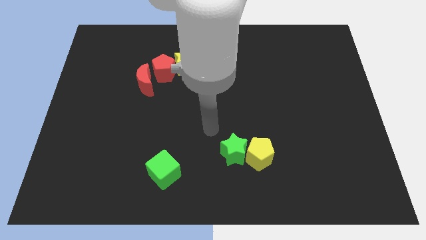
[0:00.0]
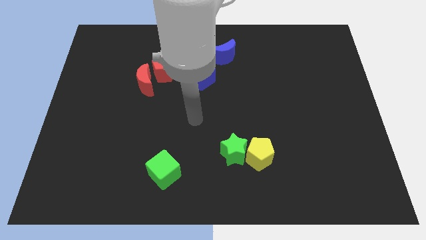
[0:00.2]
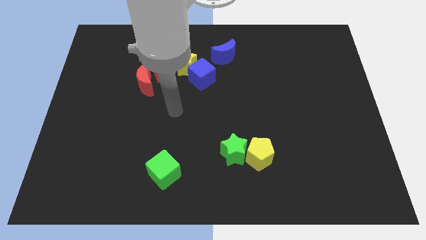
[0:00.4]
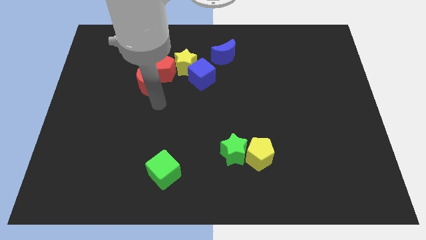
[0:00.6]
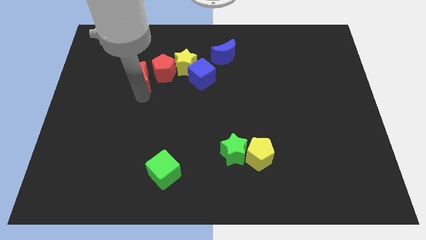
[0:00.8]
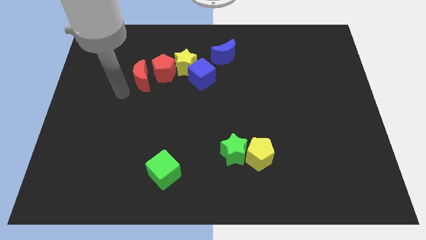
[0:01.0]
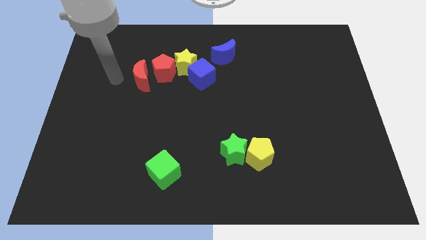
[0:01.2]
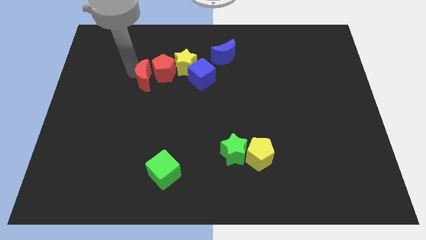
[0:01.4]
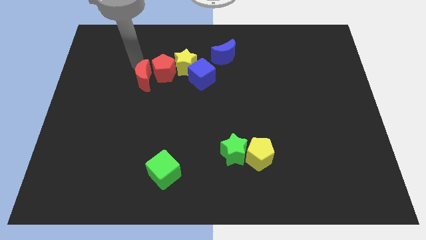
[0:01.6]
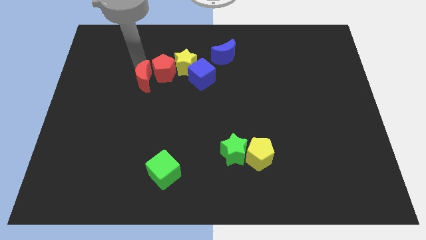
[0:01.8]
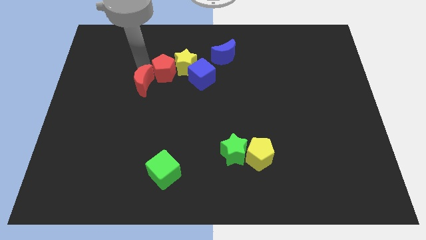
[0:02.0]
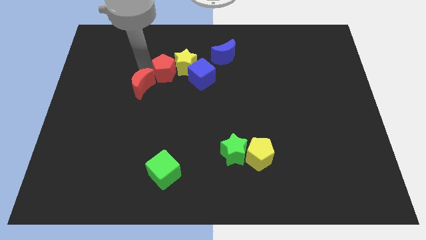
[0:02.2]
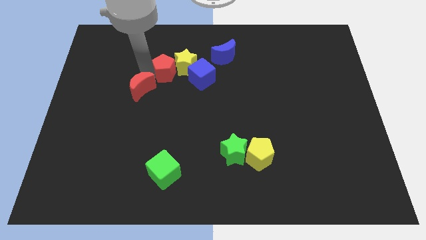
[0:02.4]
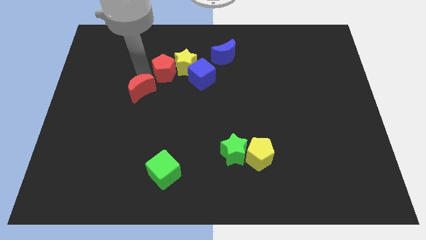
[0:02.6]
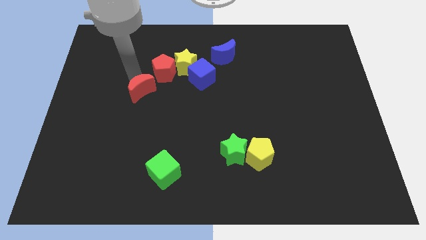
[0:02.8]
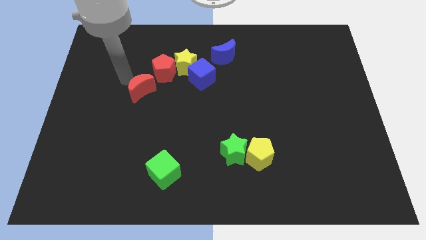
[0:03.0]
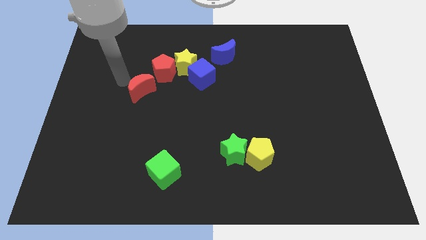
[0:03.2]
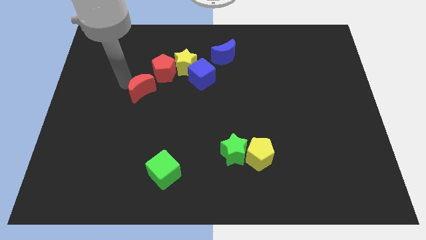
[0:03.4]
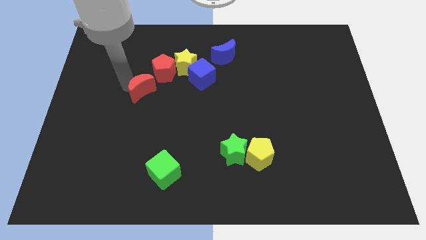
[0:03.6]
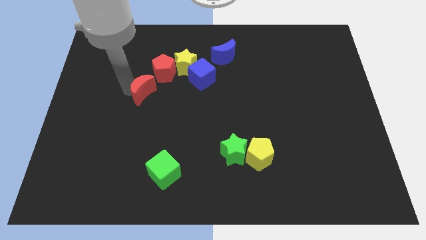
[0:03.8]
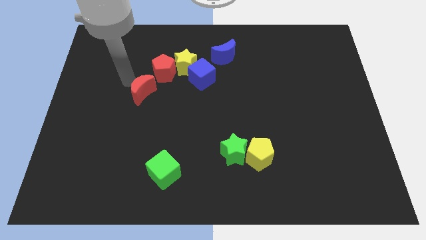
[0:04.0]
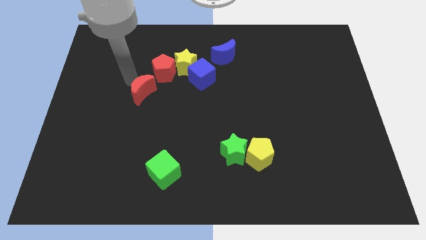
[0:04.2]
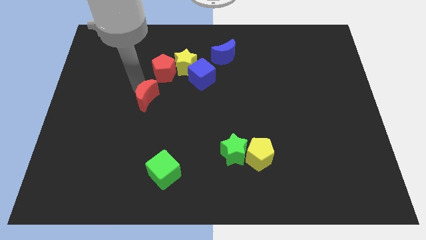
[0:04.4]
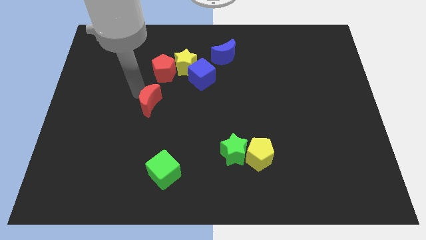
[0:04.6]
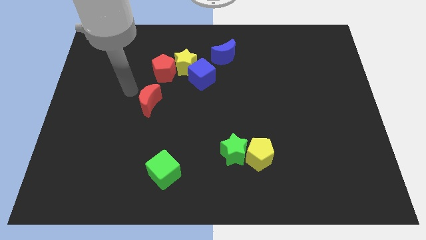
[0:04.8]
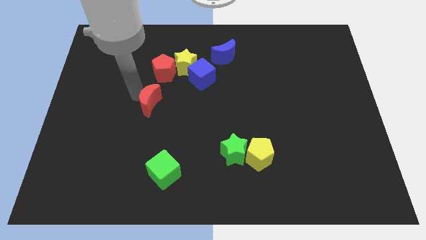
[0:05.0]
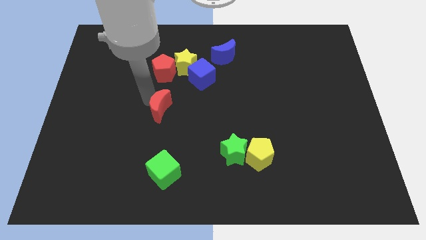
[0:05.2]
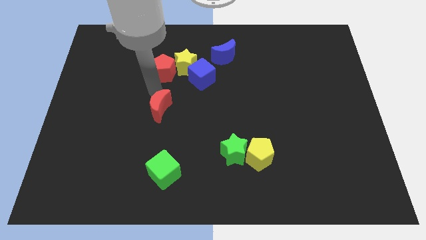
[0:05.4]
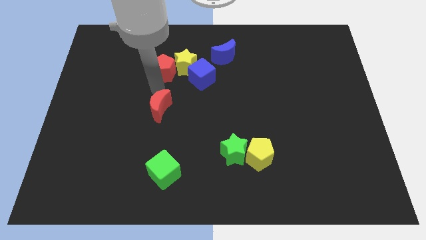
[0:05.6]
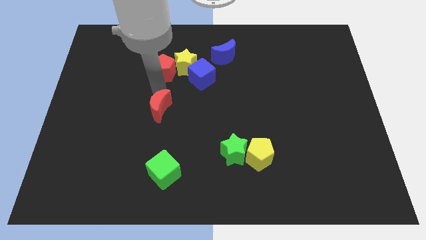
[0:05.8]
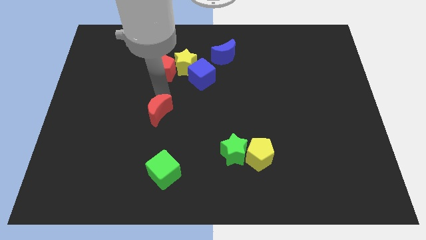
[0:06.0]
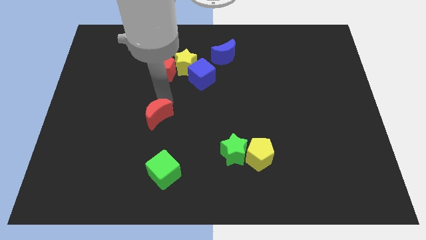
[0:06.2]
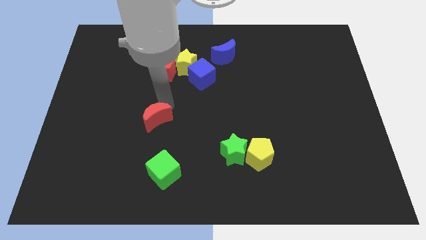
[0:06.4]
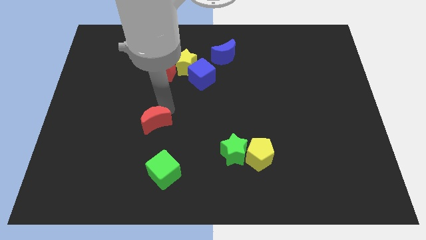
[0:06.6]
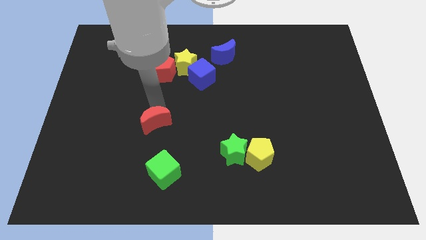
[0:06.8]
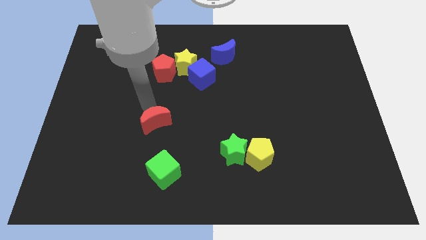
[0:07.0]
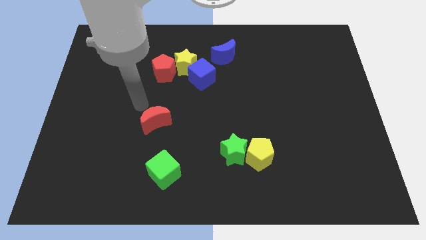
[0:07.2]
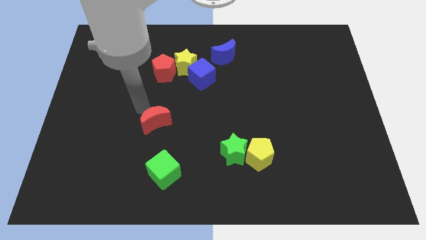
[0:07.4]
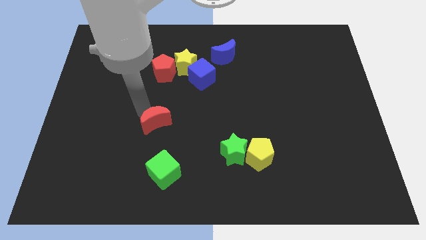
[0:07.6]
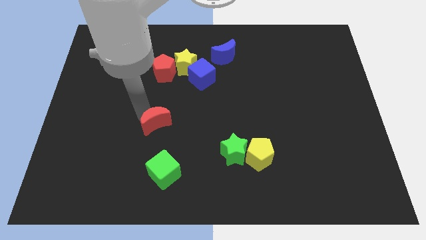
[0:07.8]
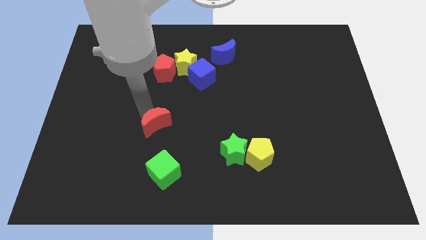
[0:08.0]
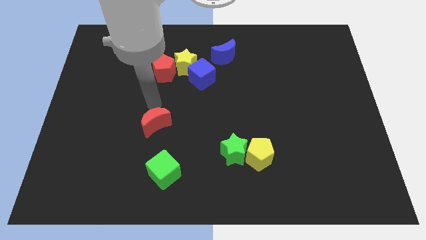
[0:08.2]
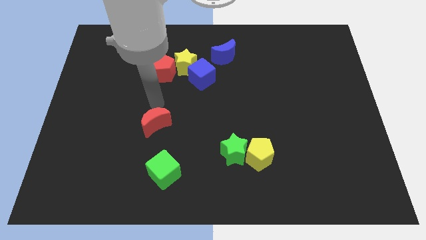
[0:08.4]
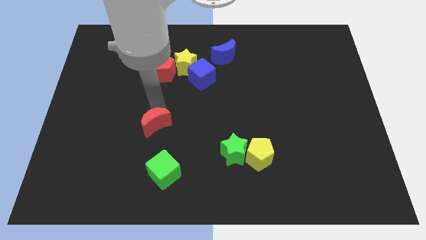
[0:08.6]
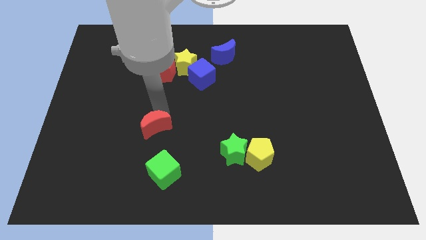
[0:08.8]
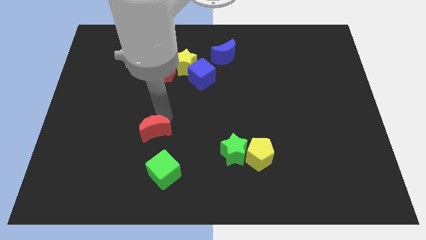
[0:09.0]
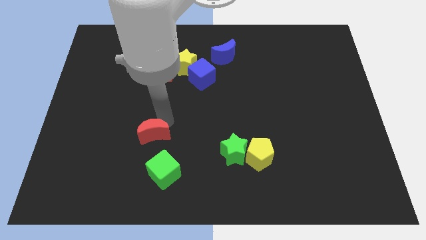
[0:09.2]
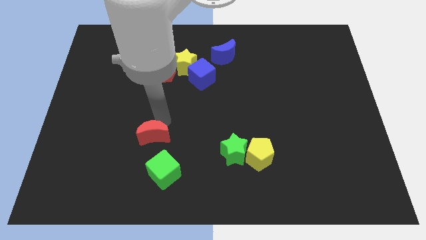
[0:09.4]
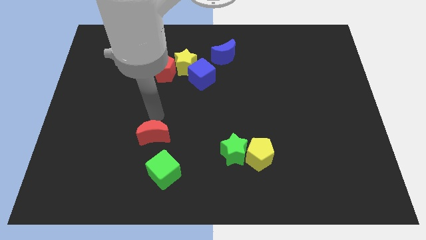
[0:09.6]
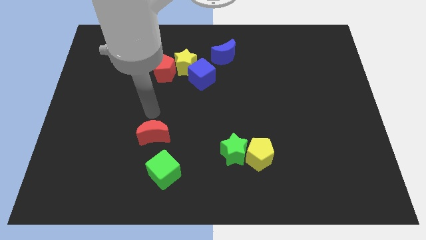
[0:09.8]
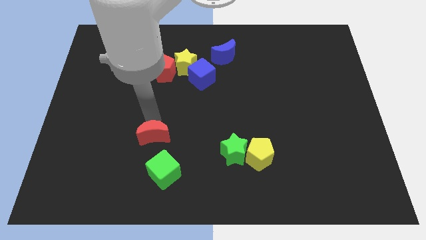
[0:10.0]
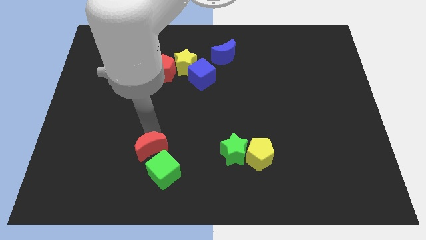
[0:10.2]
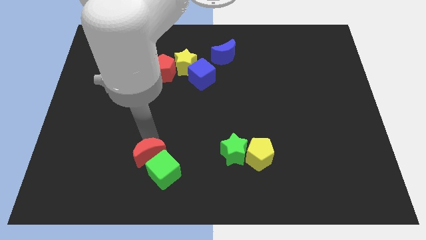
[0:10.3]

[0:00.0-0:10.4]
push the red moon next to the green cube

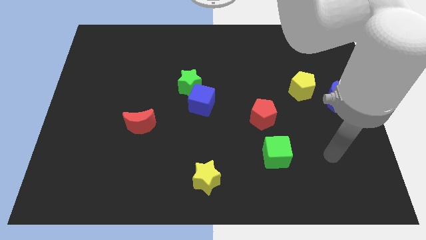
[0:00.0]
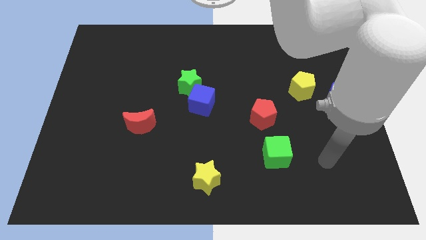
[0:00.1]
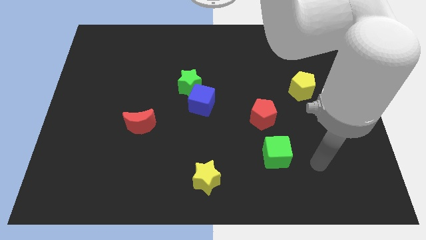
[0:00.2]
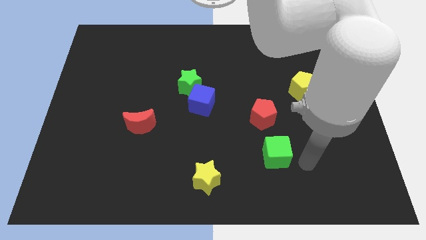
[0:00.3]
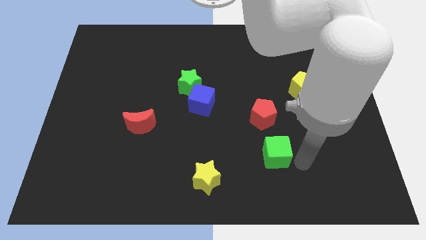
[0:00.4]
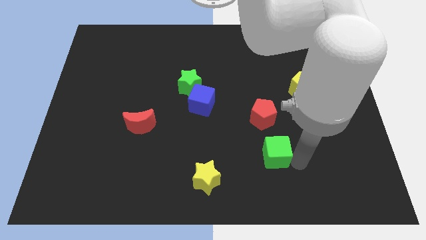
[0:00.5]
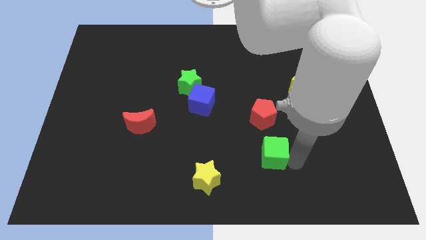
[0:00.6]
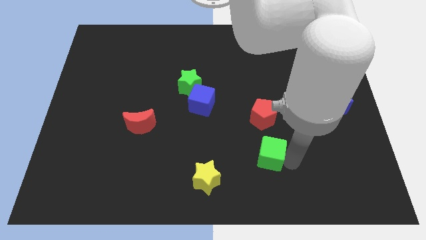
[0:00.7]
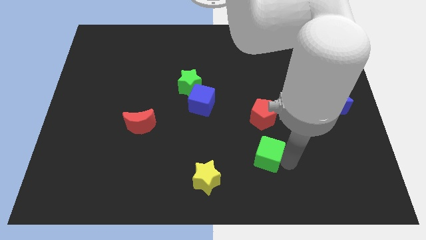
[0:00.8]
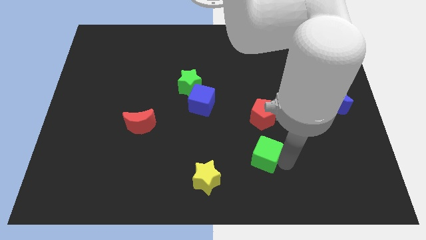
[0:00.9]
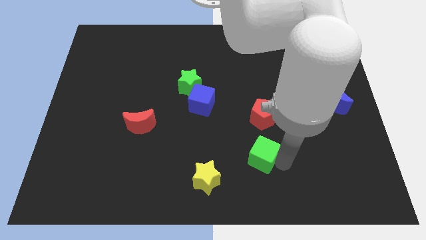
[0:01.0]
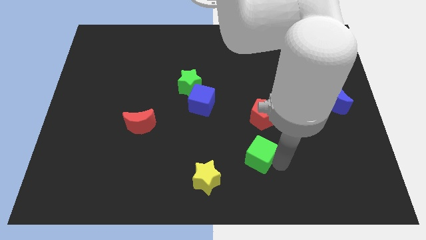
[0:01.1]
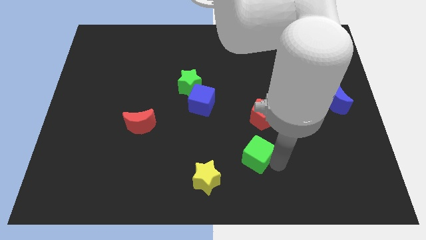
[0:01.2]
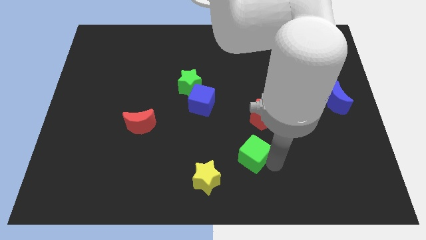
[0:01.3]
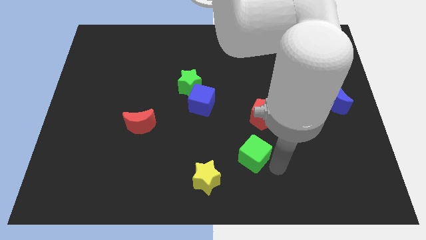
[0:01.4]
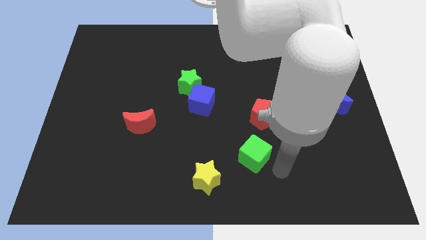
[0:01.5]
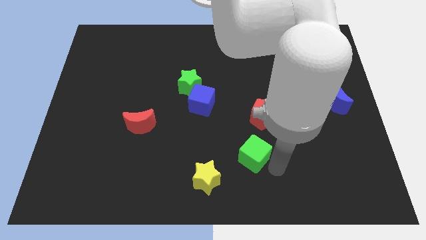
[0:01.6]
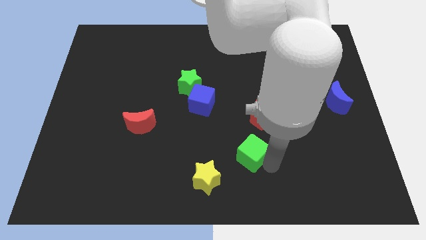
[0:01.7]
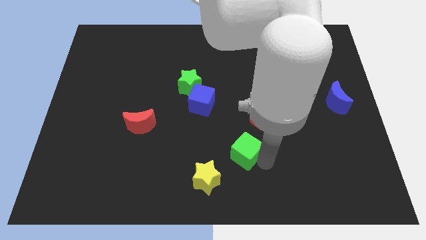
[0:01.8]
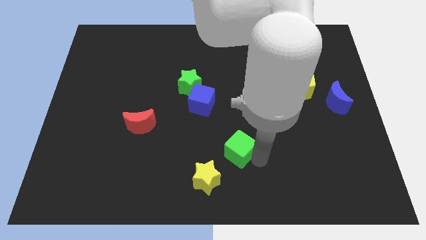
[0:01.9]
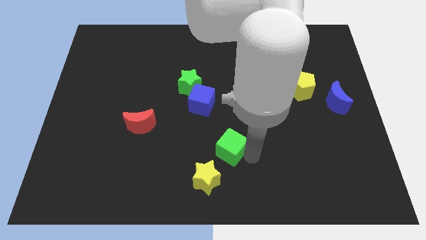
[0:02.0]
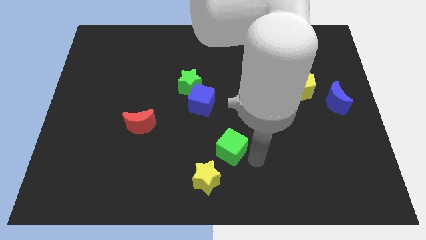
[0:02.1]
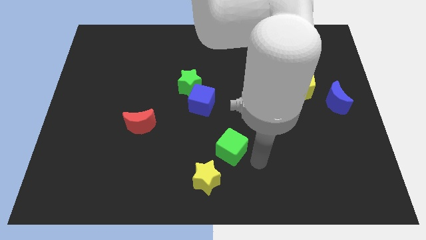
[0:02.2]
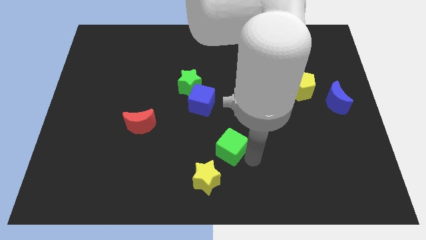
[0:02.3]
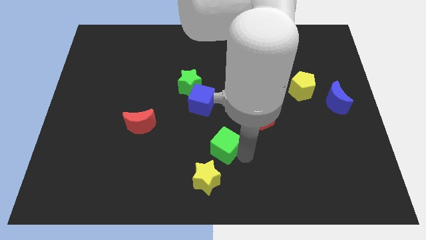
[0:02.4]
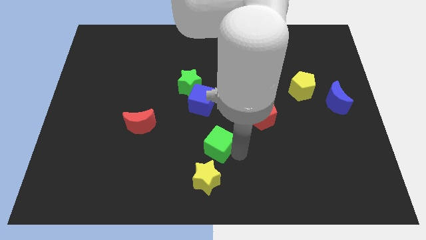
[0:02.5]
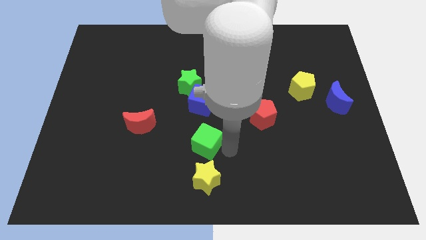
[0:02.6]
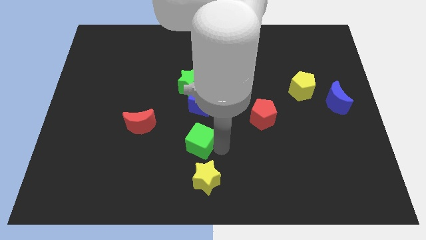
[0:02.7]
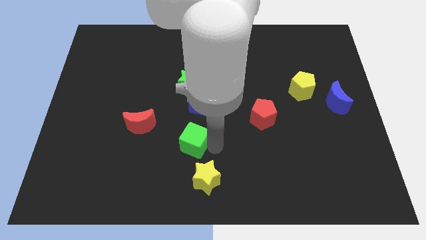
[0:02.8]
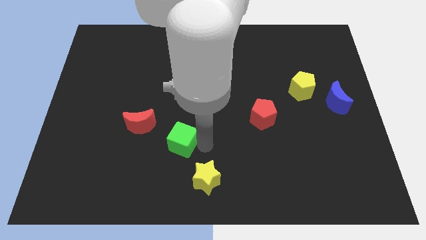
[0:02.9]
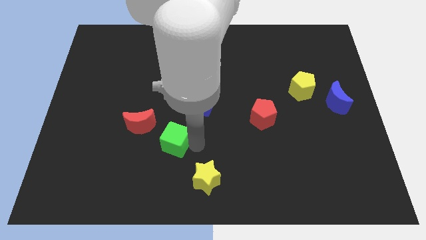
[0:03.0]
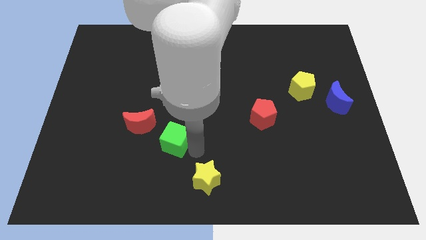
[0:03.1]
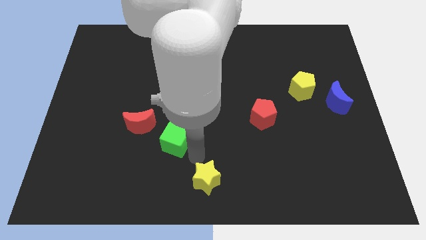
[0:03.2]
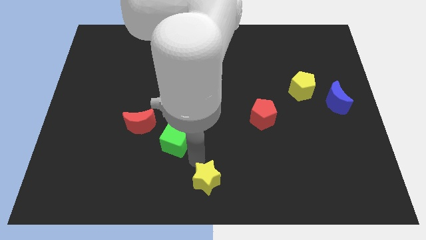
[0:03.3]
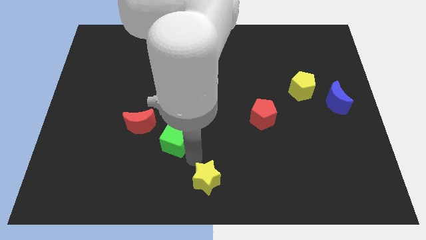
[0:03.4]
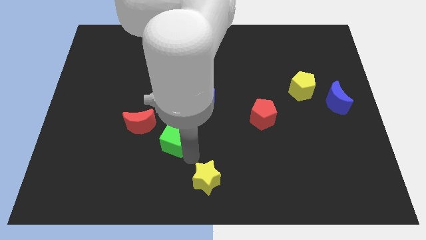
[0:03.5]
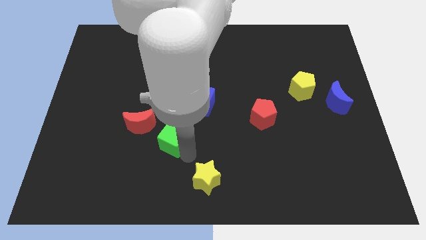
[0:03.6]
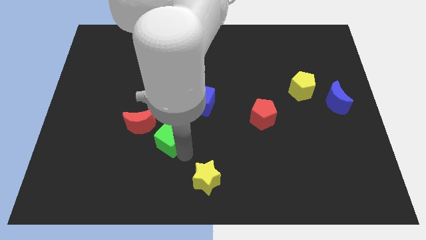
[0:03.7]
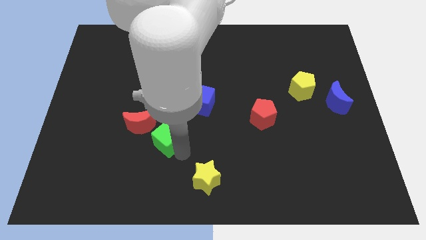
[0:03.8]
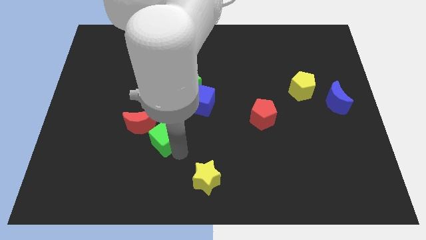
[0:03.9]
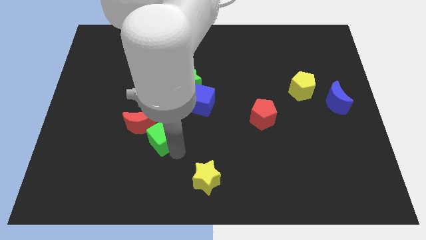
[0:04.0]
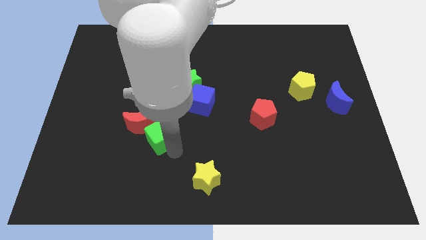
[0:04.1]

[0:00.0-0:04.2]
put the green cube to the red moon
